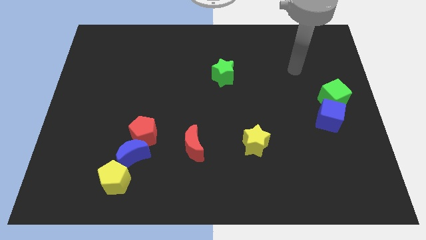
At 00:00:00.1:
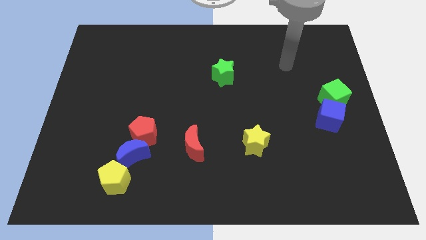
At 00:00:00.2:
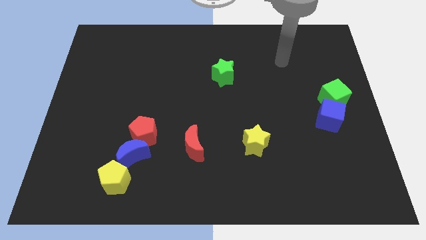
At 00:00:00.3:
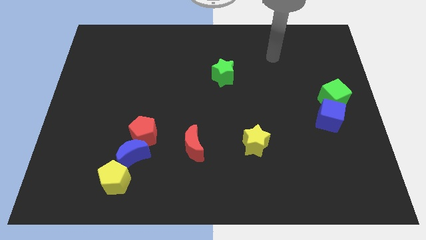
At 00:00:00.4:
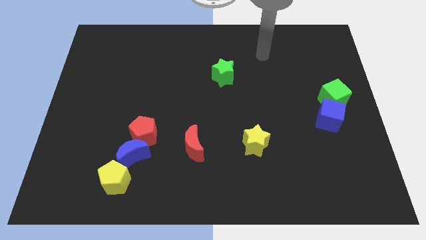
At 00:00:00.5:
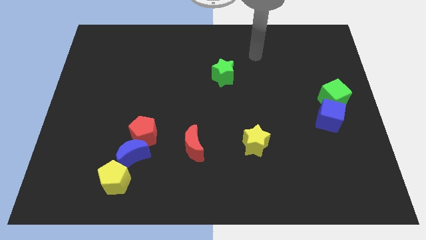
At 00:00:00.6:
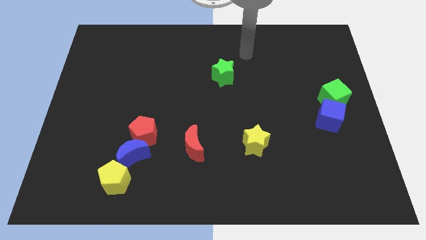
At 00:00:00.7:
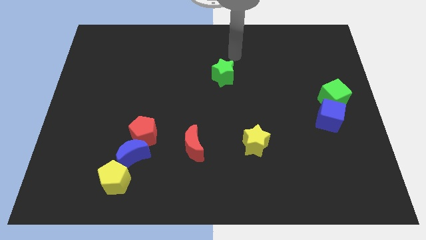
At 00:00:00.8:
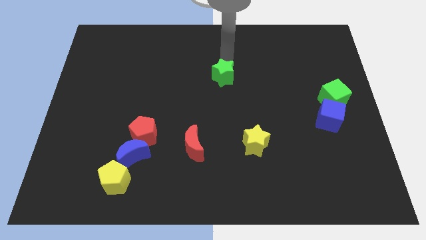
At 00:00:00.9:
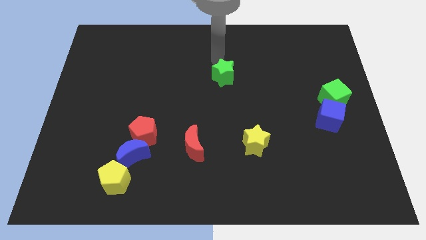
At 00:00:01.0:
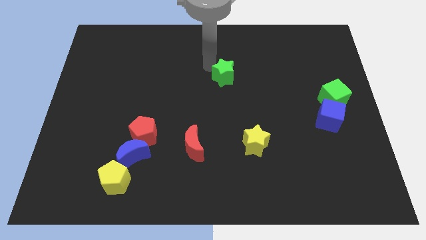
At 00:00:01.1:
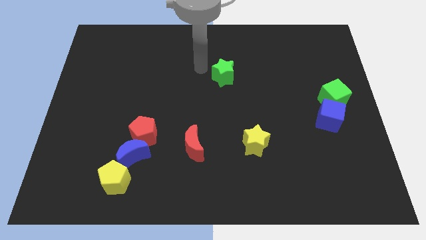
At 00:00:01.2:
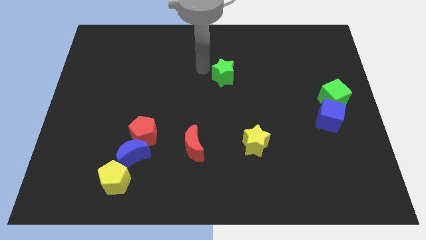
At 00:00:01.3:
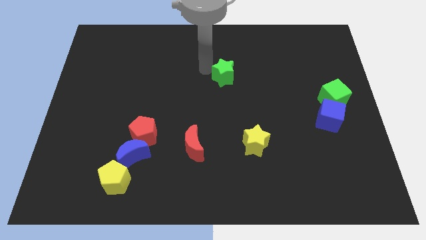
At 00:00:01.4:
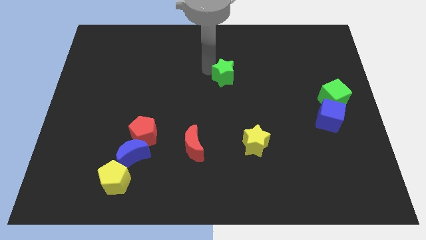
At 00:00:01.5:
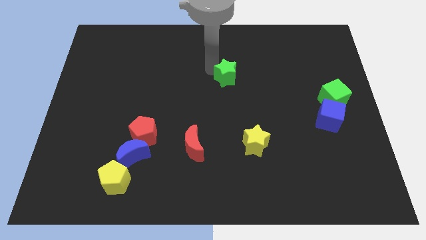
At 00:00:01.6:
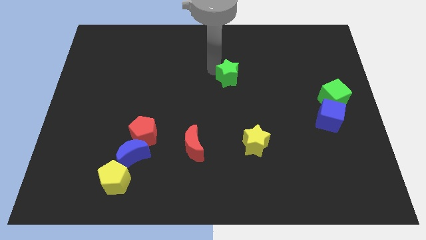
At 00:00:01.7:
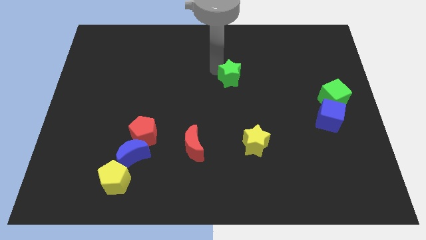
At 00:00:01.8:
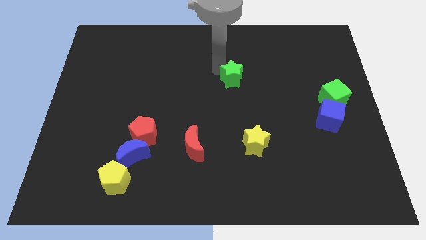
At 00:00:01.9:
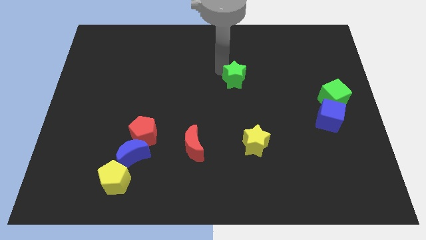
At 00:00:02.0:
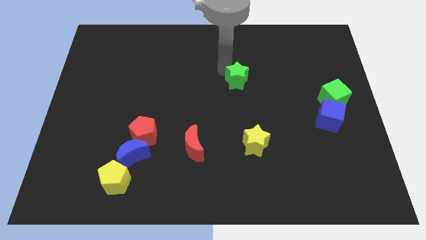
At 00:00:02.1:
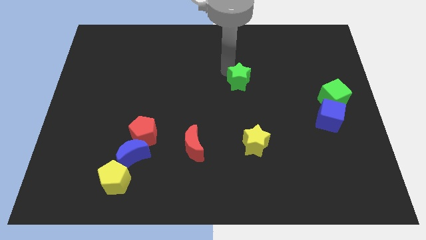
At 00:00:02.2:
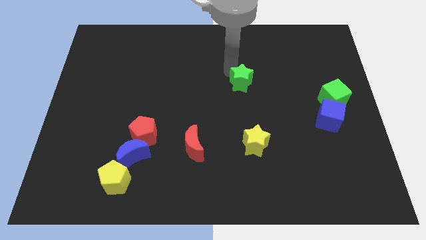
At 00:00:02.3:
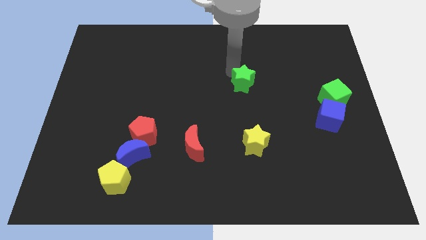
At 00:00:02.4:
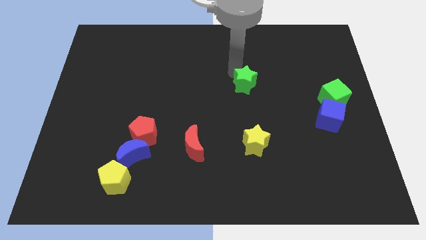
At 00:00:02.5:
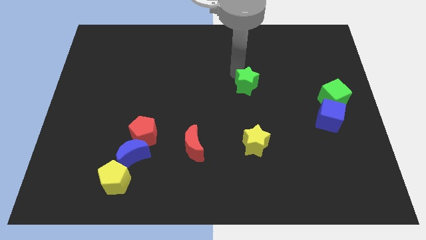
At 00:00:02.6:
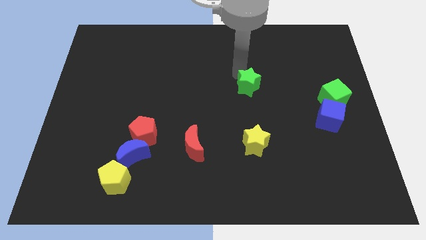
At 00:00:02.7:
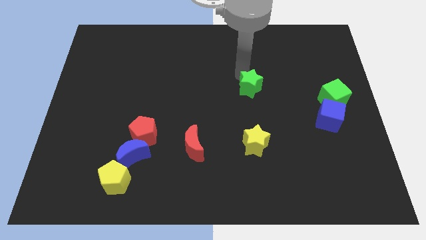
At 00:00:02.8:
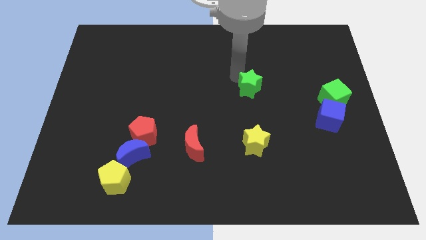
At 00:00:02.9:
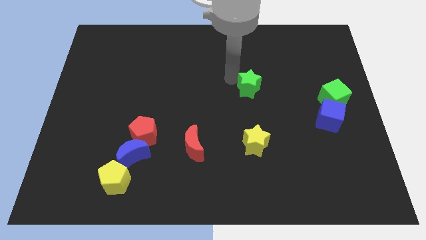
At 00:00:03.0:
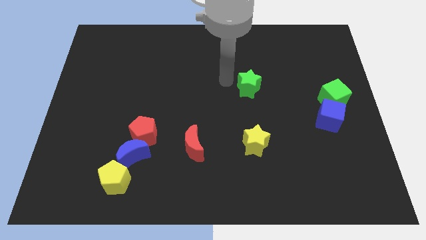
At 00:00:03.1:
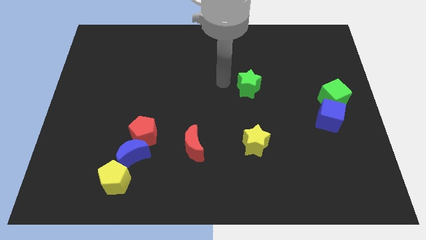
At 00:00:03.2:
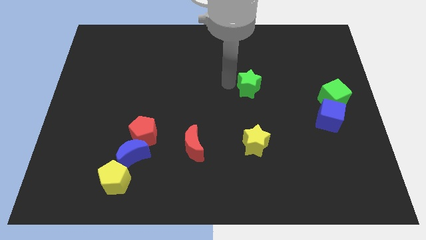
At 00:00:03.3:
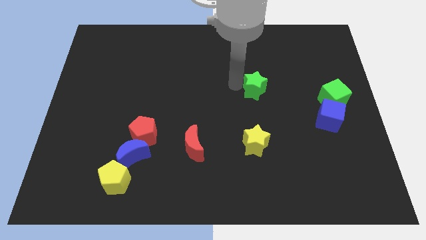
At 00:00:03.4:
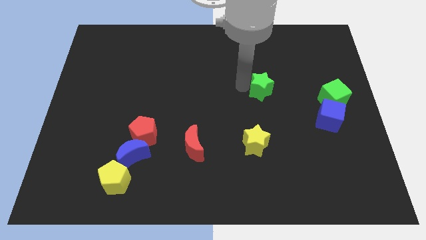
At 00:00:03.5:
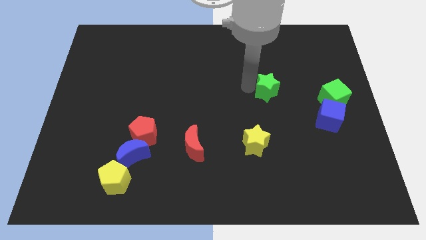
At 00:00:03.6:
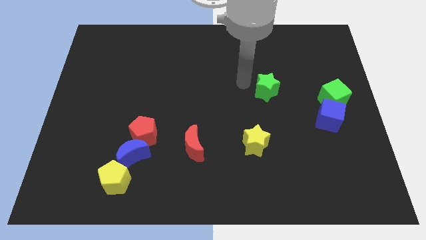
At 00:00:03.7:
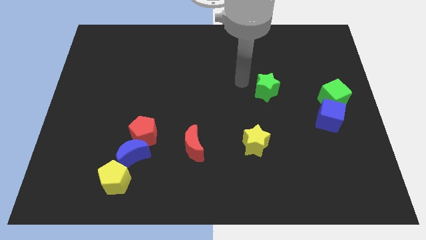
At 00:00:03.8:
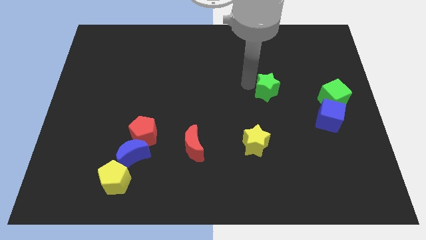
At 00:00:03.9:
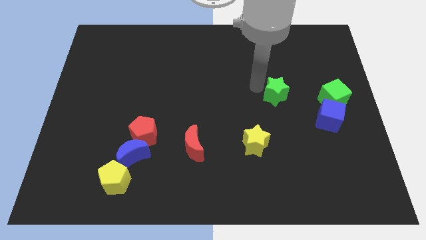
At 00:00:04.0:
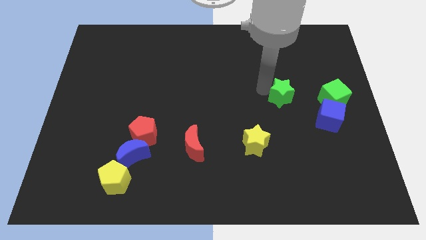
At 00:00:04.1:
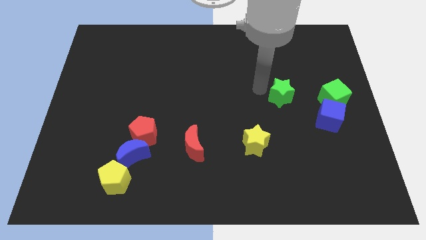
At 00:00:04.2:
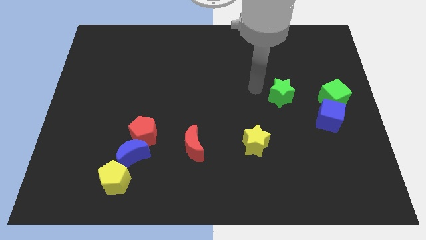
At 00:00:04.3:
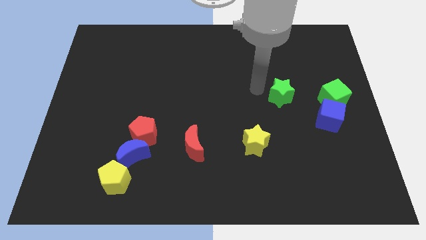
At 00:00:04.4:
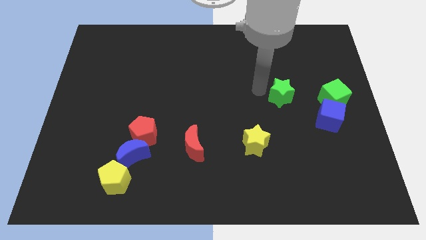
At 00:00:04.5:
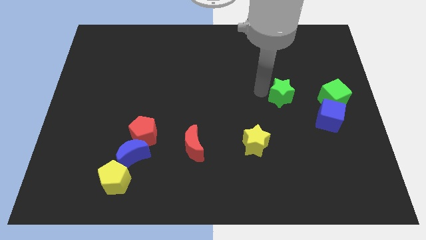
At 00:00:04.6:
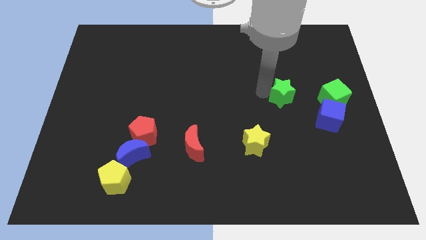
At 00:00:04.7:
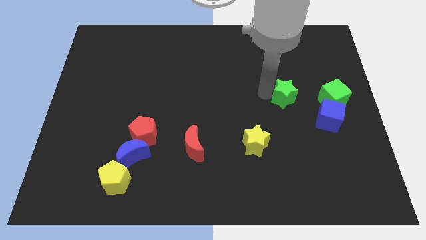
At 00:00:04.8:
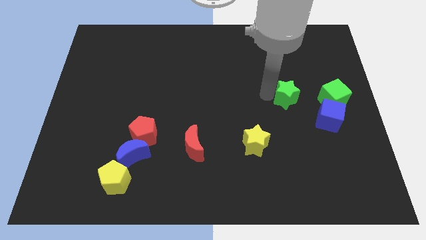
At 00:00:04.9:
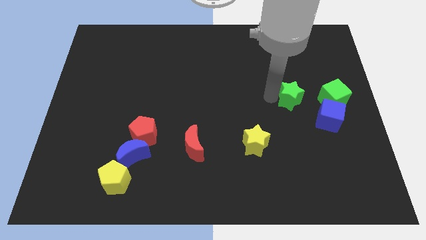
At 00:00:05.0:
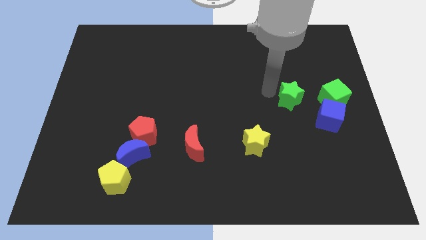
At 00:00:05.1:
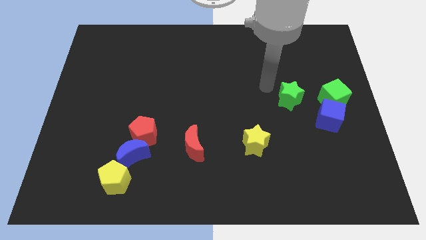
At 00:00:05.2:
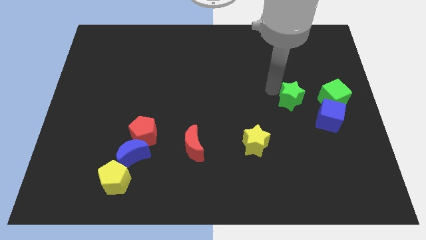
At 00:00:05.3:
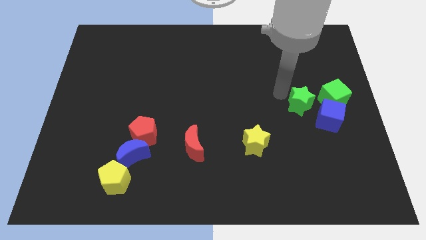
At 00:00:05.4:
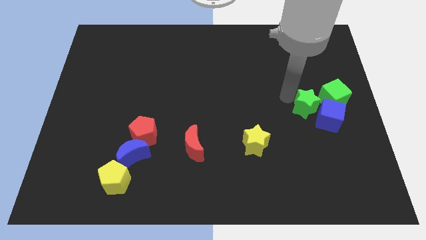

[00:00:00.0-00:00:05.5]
push the green star close to the blue cube

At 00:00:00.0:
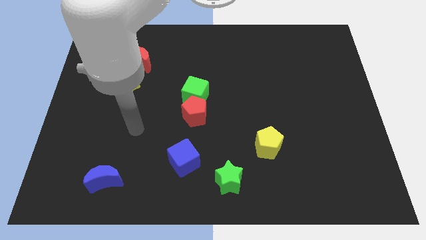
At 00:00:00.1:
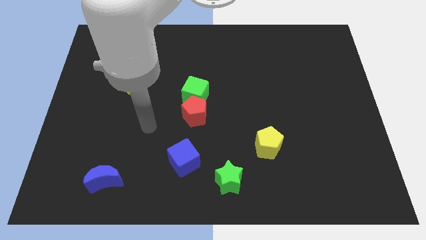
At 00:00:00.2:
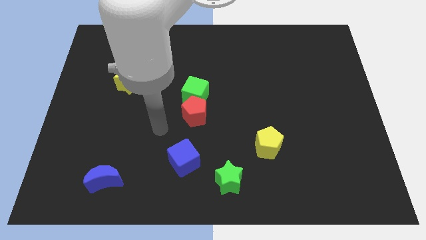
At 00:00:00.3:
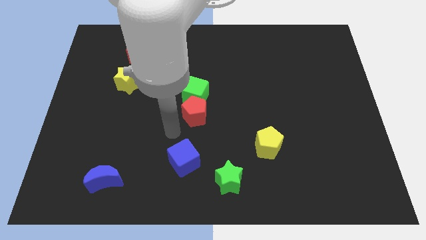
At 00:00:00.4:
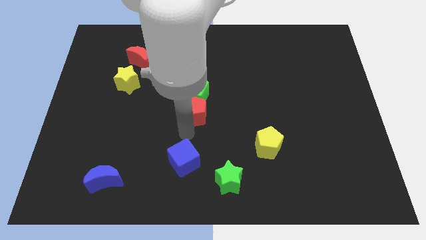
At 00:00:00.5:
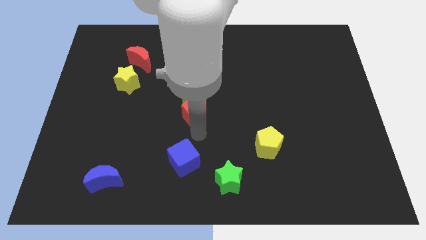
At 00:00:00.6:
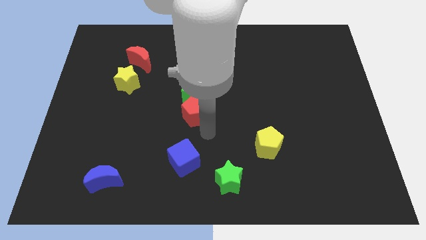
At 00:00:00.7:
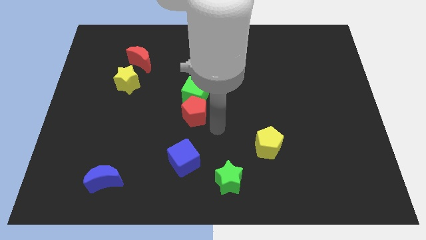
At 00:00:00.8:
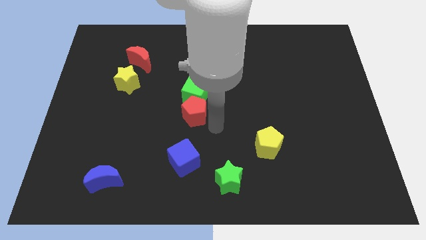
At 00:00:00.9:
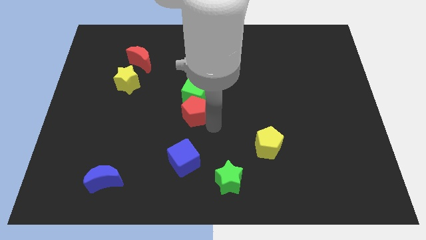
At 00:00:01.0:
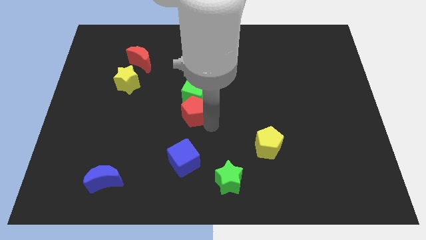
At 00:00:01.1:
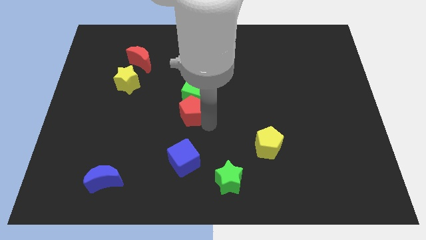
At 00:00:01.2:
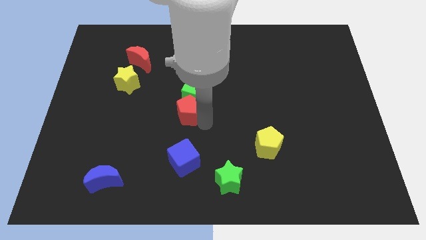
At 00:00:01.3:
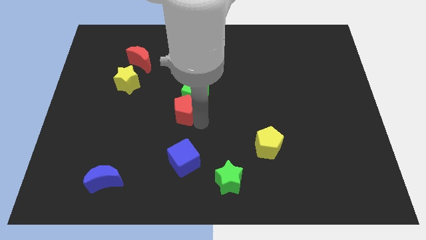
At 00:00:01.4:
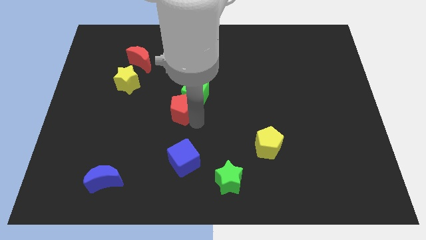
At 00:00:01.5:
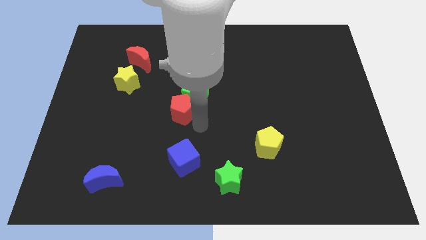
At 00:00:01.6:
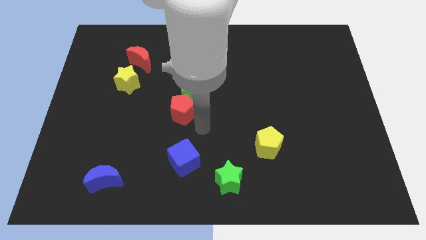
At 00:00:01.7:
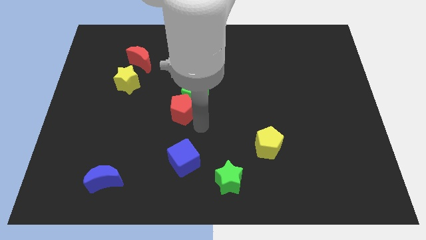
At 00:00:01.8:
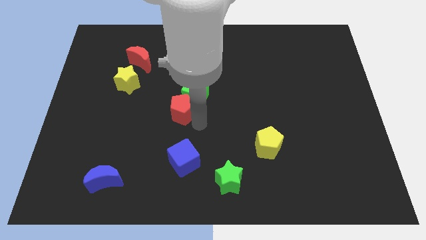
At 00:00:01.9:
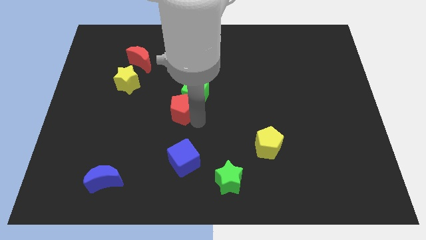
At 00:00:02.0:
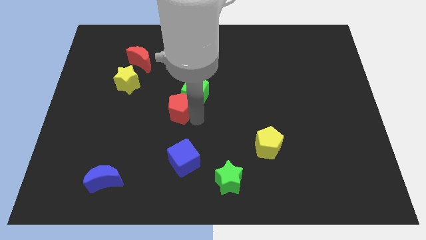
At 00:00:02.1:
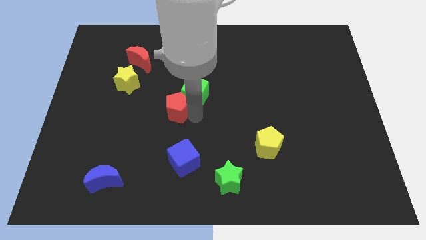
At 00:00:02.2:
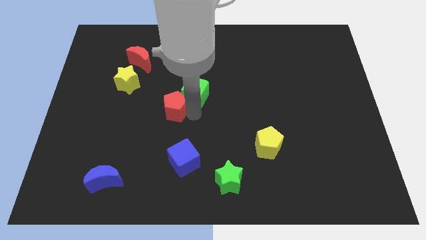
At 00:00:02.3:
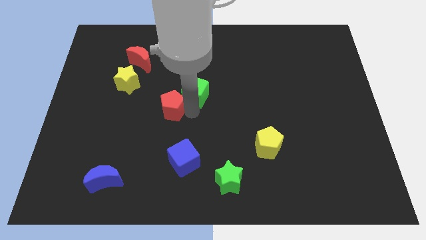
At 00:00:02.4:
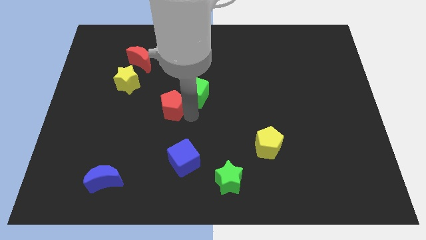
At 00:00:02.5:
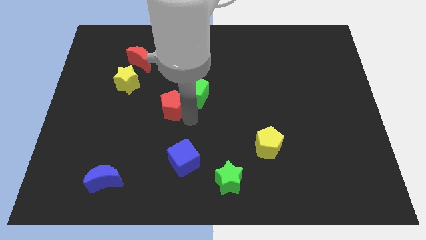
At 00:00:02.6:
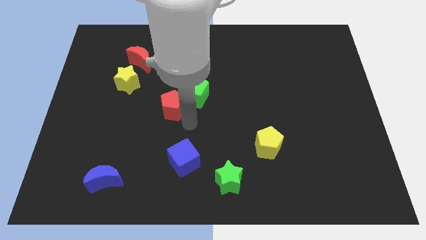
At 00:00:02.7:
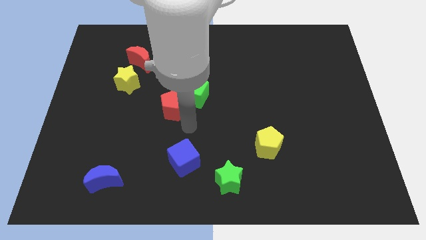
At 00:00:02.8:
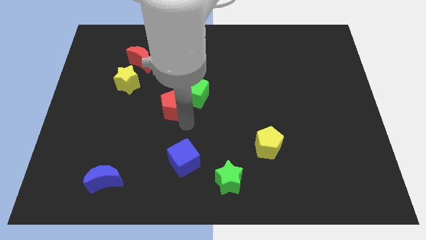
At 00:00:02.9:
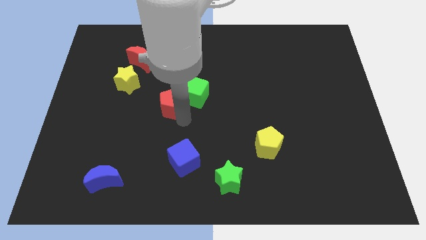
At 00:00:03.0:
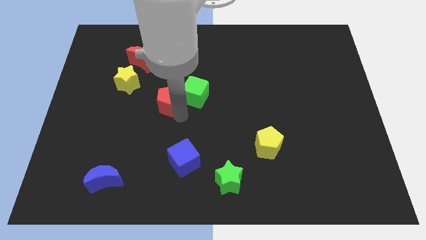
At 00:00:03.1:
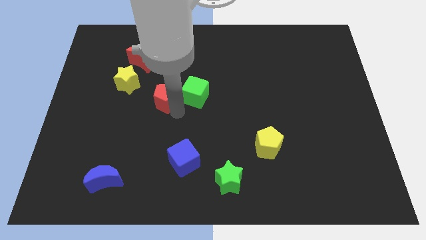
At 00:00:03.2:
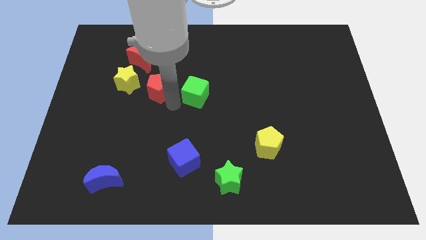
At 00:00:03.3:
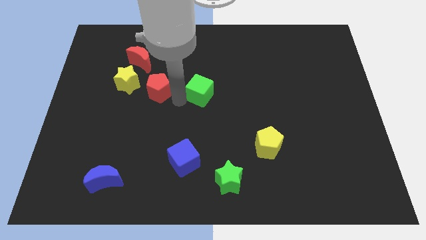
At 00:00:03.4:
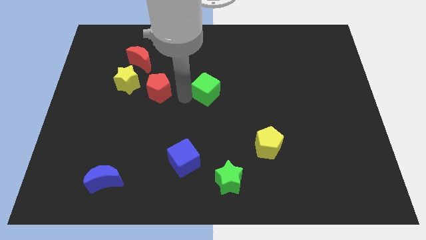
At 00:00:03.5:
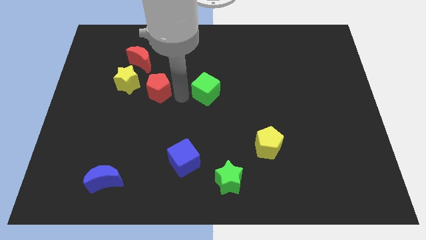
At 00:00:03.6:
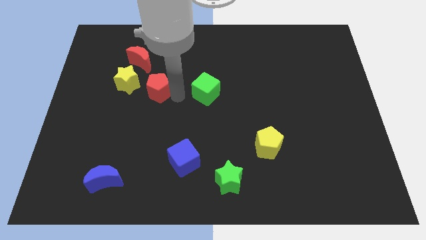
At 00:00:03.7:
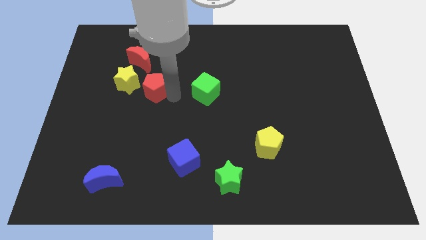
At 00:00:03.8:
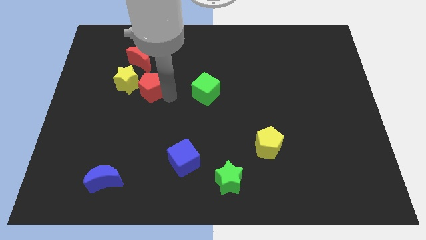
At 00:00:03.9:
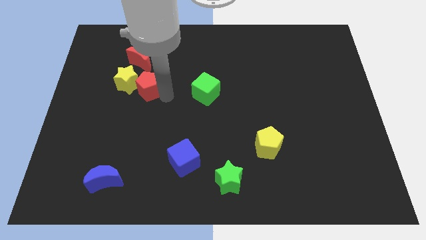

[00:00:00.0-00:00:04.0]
put the red pentagon next to the yellow star
